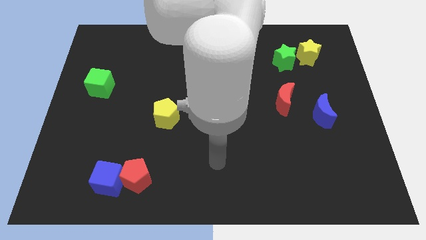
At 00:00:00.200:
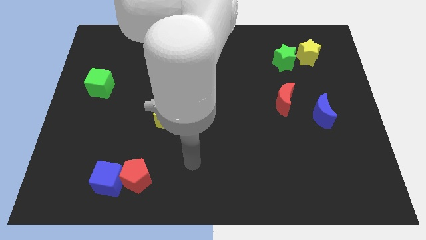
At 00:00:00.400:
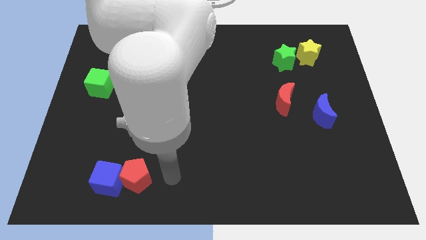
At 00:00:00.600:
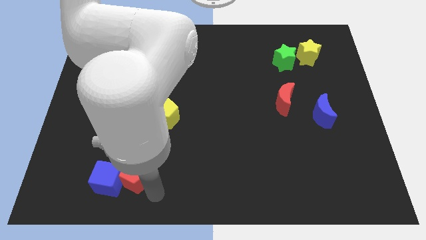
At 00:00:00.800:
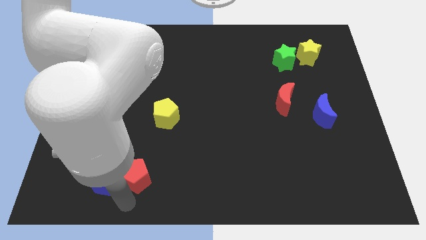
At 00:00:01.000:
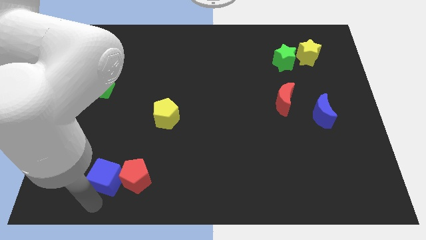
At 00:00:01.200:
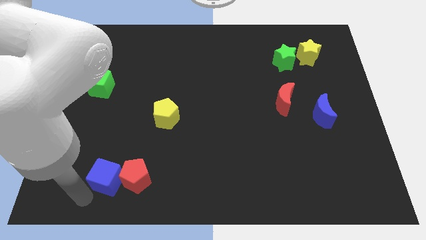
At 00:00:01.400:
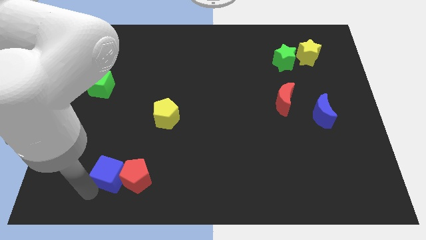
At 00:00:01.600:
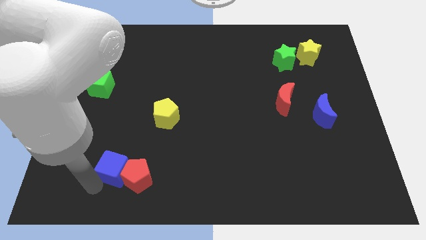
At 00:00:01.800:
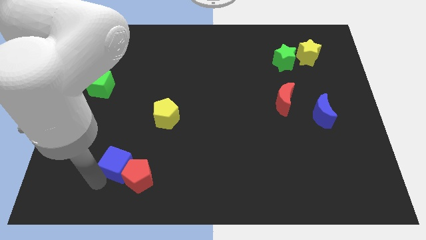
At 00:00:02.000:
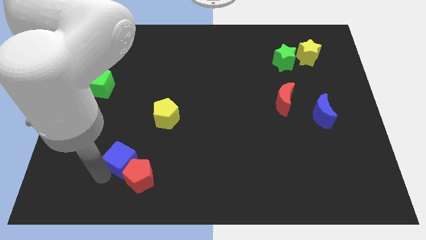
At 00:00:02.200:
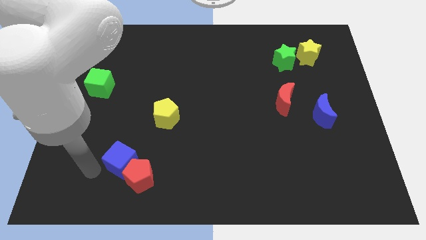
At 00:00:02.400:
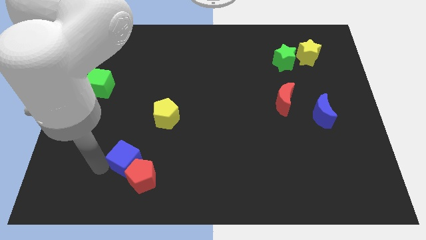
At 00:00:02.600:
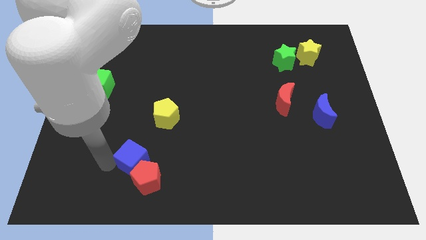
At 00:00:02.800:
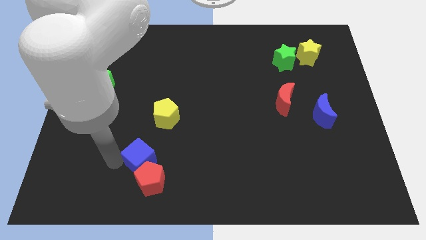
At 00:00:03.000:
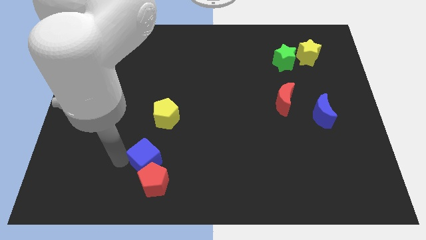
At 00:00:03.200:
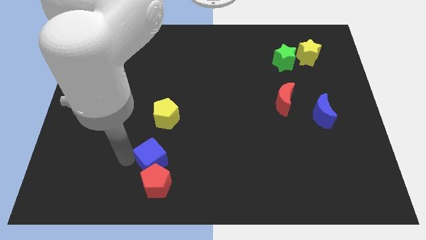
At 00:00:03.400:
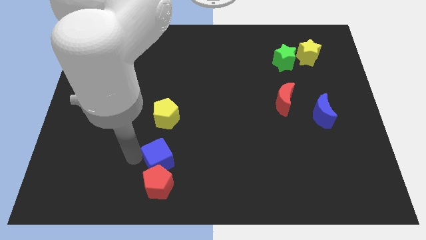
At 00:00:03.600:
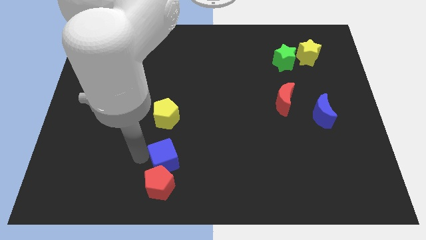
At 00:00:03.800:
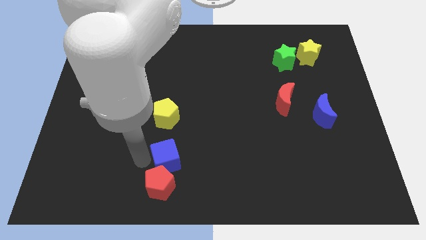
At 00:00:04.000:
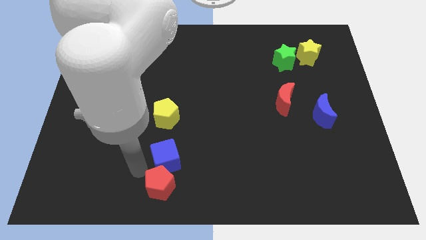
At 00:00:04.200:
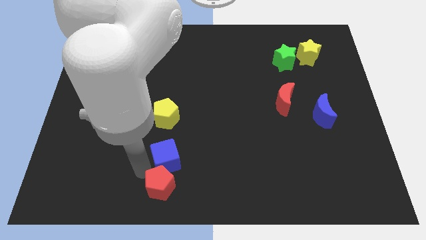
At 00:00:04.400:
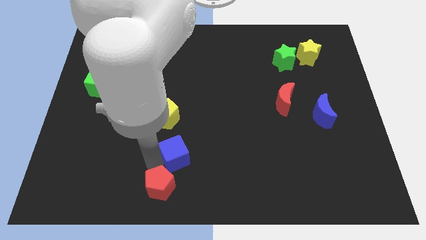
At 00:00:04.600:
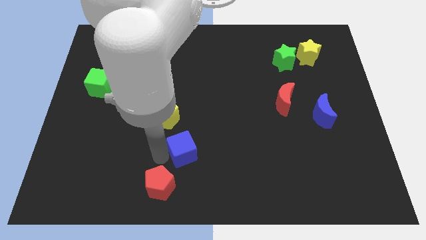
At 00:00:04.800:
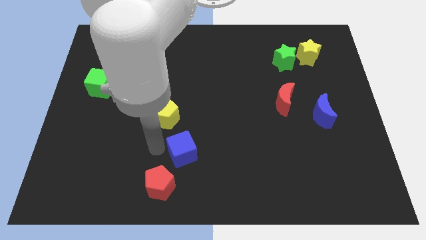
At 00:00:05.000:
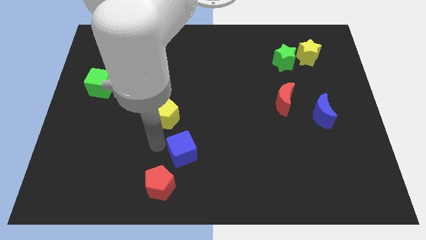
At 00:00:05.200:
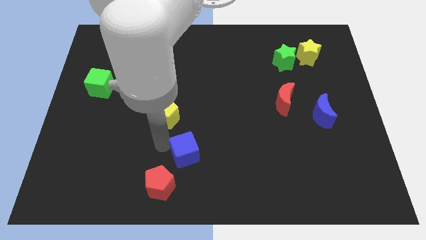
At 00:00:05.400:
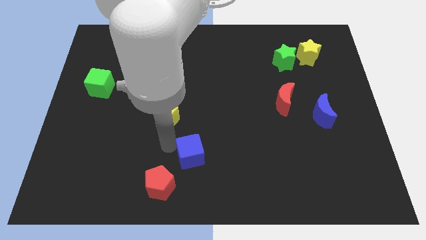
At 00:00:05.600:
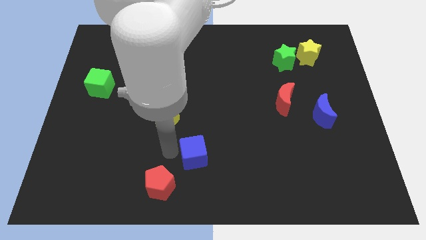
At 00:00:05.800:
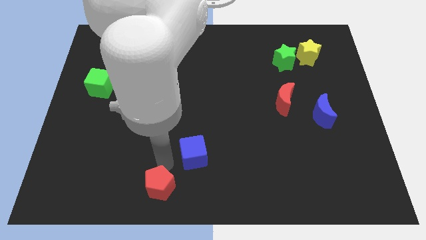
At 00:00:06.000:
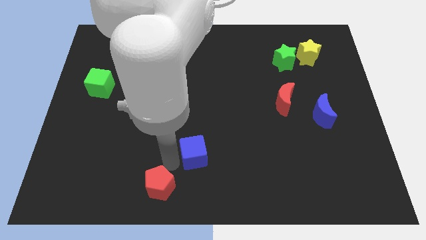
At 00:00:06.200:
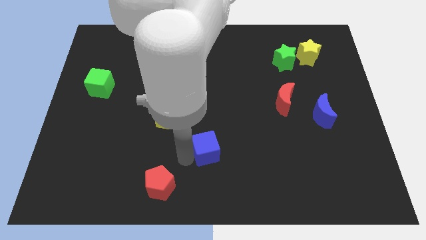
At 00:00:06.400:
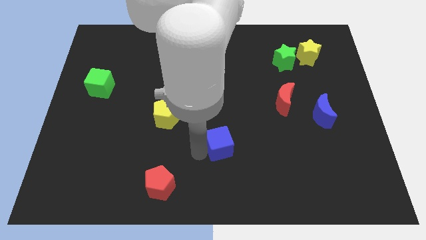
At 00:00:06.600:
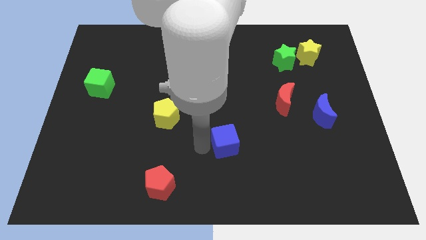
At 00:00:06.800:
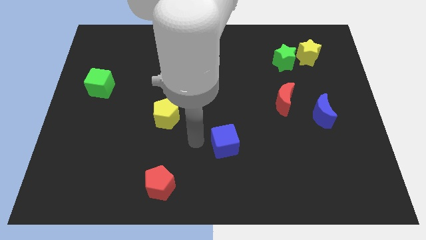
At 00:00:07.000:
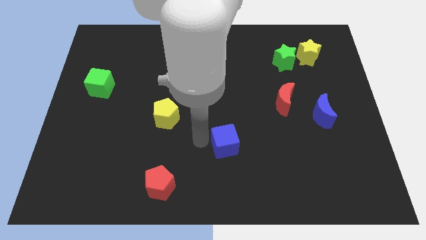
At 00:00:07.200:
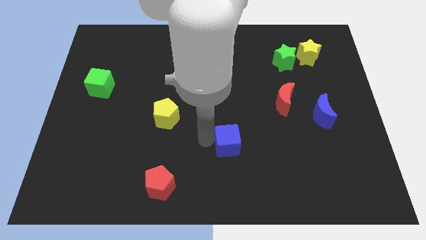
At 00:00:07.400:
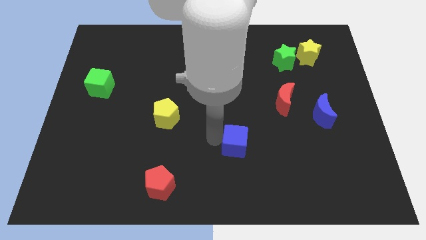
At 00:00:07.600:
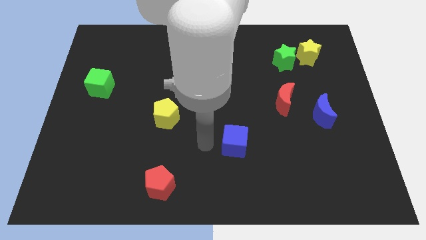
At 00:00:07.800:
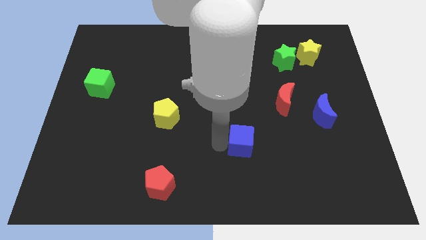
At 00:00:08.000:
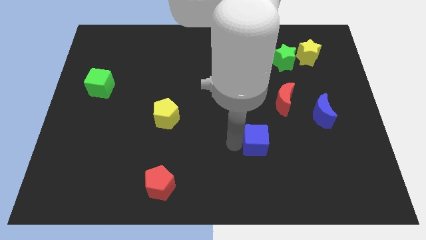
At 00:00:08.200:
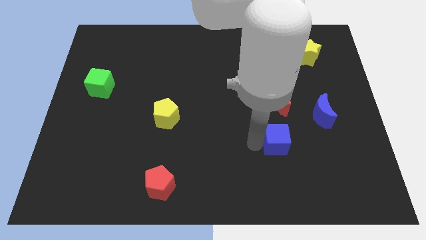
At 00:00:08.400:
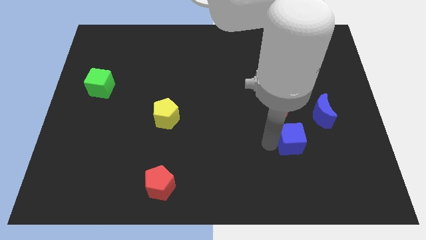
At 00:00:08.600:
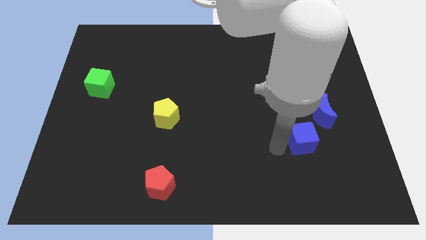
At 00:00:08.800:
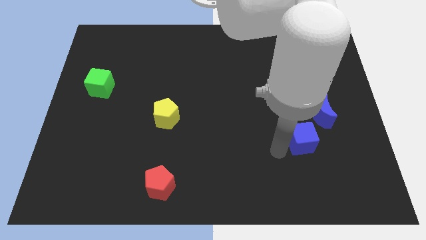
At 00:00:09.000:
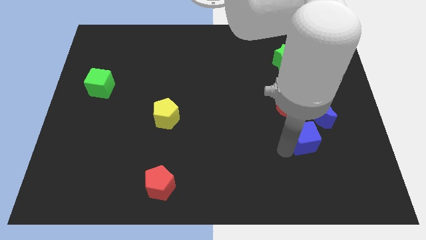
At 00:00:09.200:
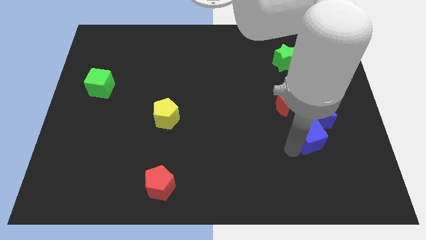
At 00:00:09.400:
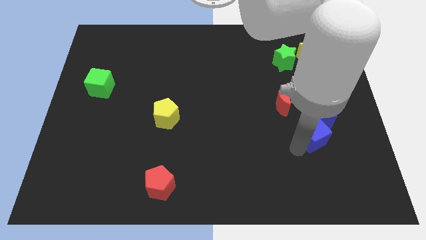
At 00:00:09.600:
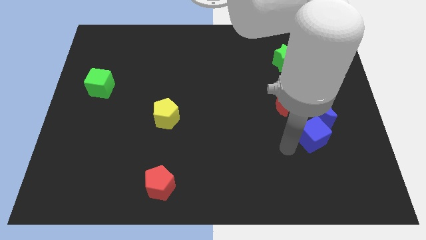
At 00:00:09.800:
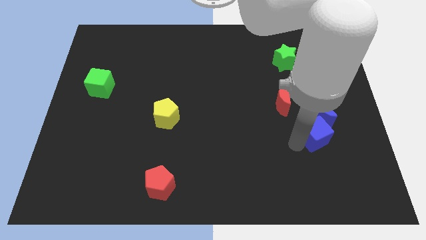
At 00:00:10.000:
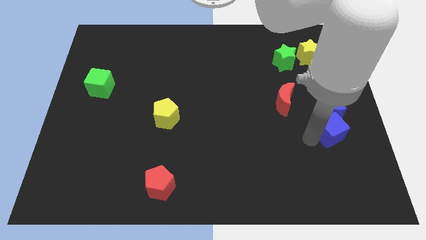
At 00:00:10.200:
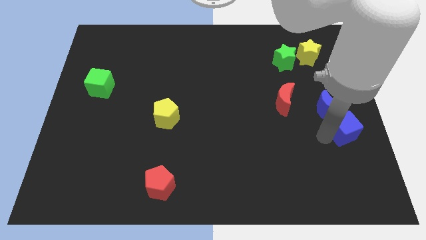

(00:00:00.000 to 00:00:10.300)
move the blue cube to the right side of the board

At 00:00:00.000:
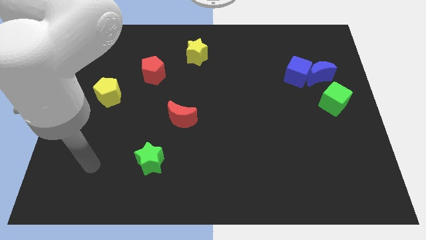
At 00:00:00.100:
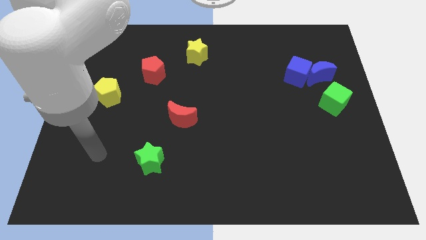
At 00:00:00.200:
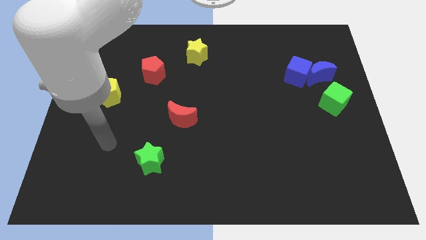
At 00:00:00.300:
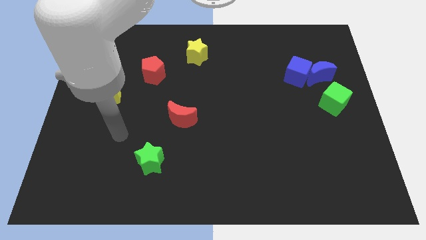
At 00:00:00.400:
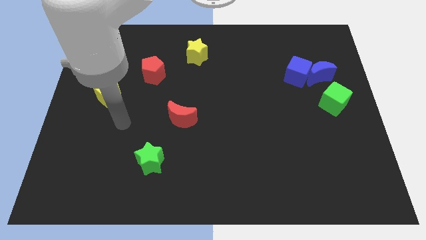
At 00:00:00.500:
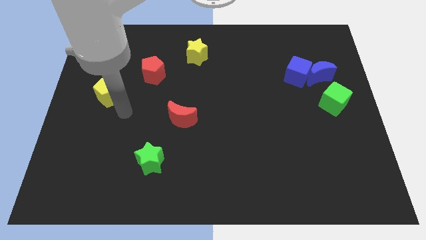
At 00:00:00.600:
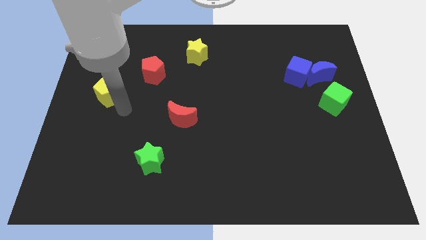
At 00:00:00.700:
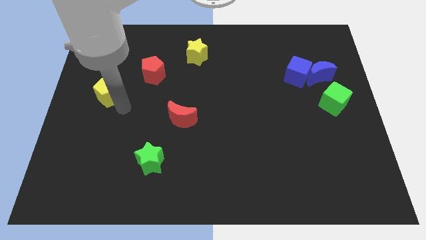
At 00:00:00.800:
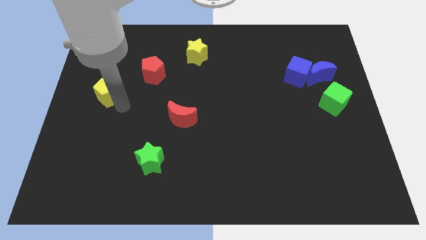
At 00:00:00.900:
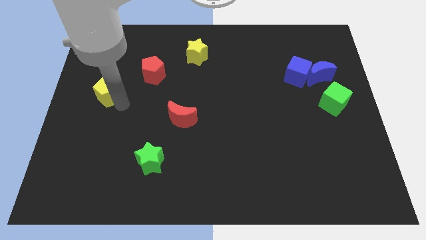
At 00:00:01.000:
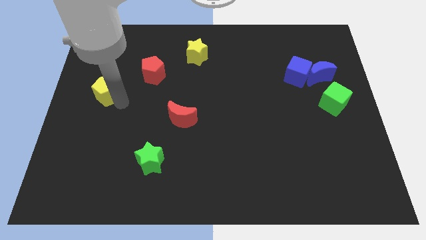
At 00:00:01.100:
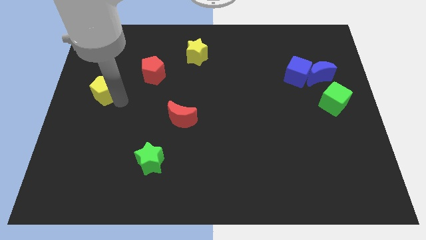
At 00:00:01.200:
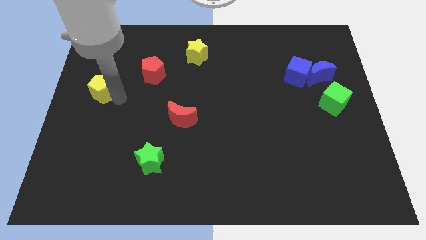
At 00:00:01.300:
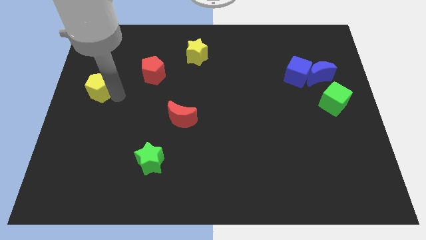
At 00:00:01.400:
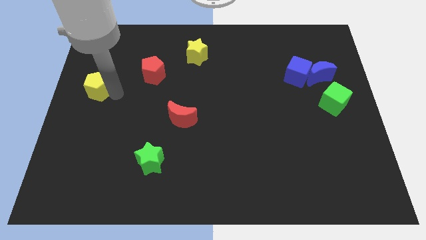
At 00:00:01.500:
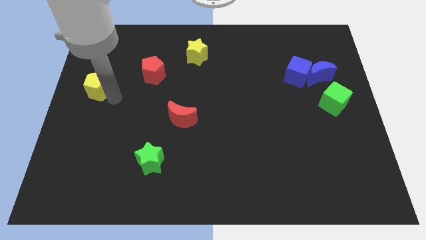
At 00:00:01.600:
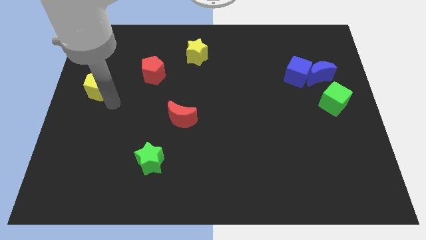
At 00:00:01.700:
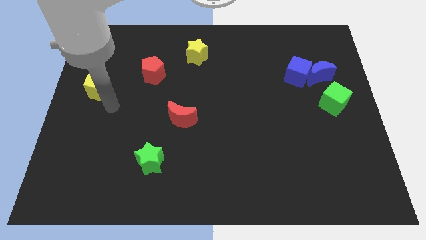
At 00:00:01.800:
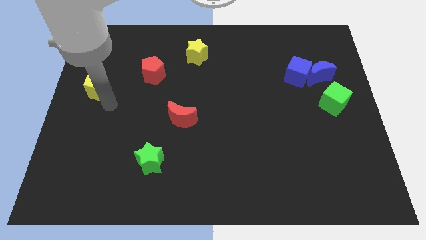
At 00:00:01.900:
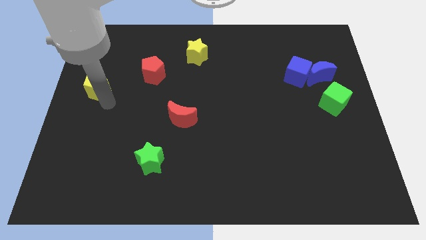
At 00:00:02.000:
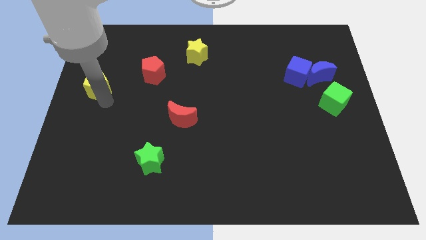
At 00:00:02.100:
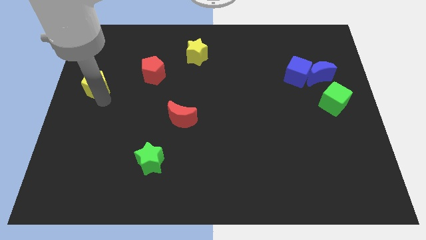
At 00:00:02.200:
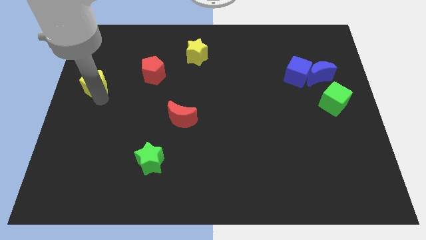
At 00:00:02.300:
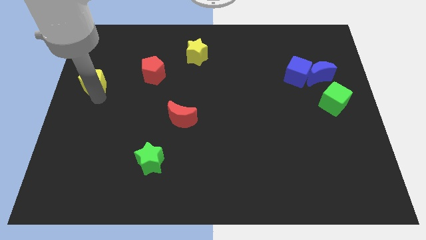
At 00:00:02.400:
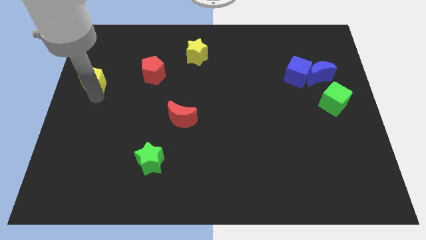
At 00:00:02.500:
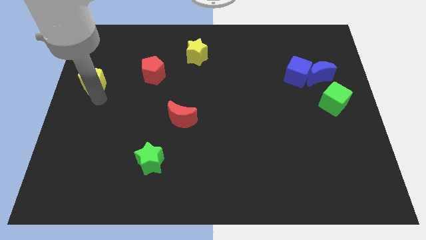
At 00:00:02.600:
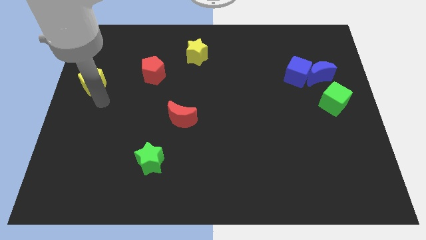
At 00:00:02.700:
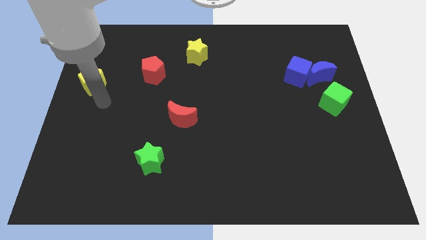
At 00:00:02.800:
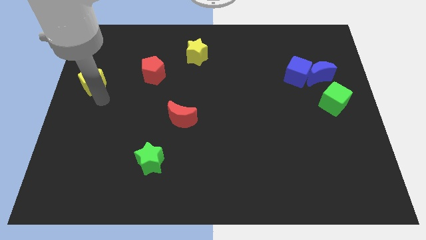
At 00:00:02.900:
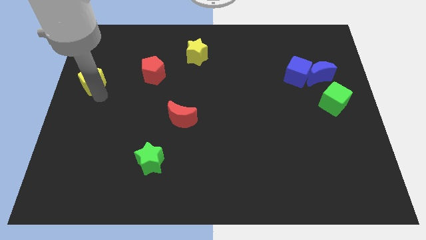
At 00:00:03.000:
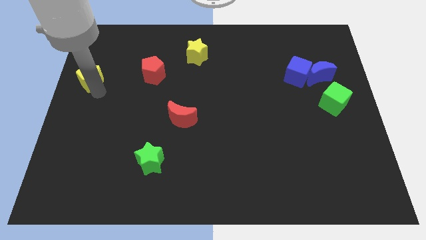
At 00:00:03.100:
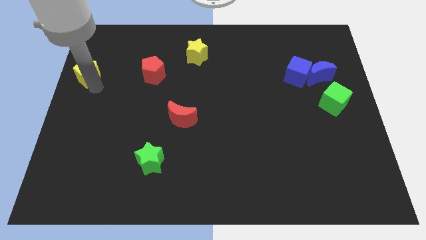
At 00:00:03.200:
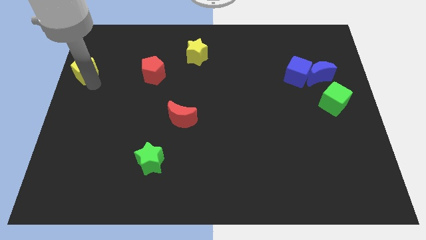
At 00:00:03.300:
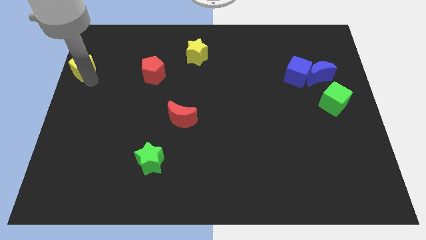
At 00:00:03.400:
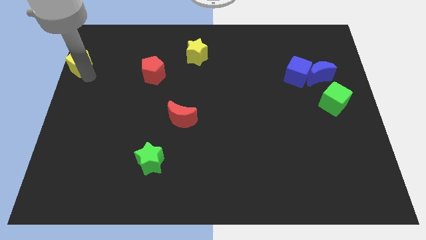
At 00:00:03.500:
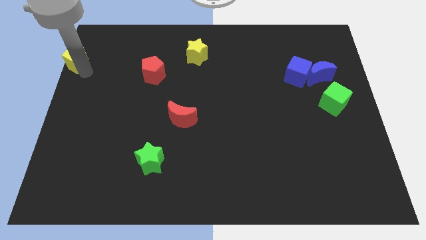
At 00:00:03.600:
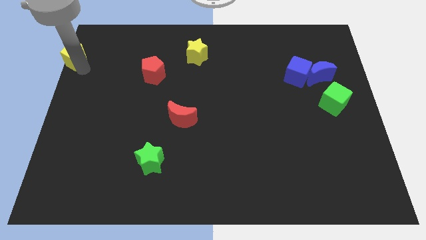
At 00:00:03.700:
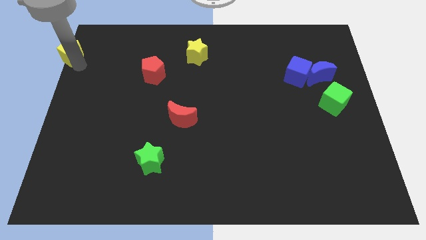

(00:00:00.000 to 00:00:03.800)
push the yellow pentagon to the top left
